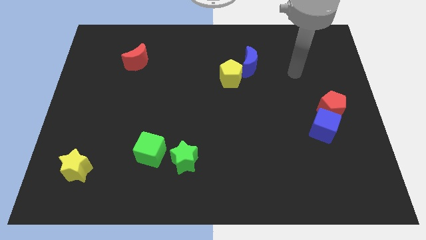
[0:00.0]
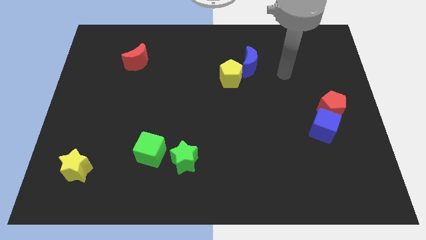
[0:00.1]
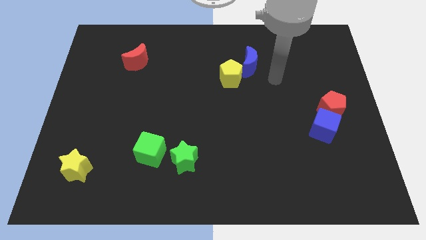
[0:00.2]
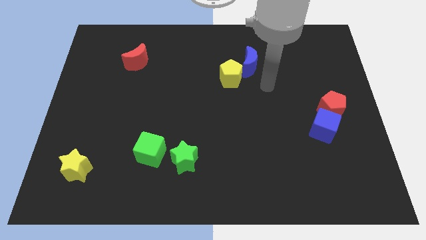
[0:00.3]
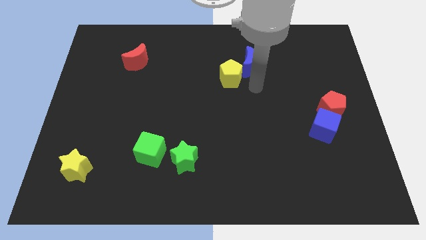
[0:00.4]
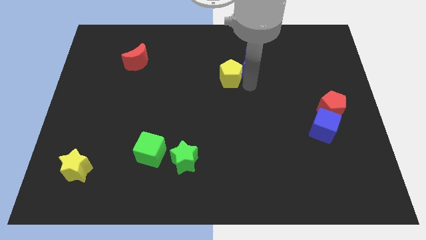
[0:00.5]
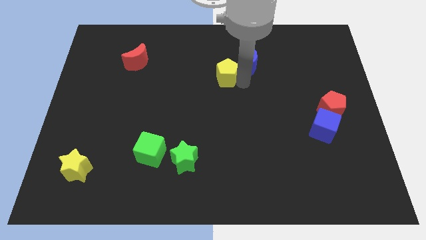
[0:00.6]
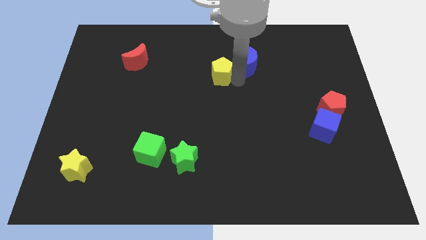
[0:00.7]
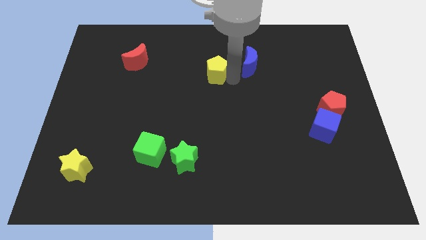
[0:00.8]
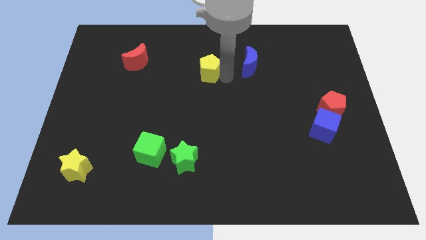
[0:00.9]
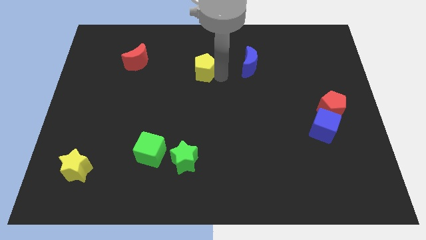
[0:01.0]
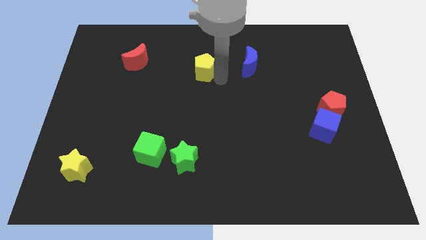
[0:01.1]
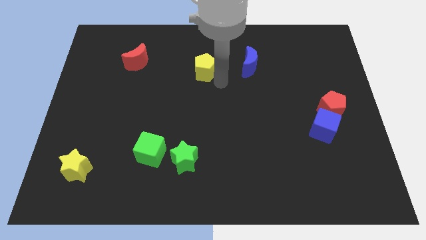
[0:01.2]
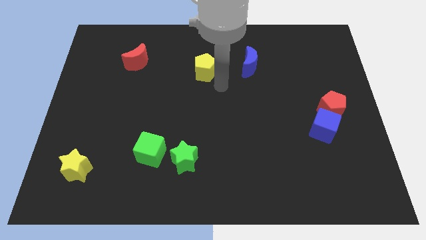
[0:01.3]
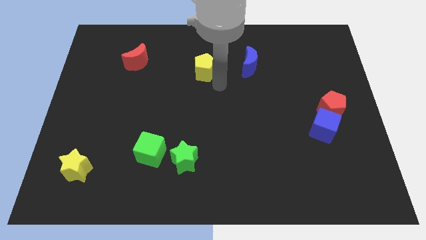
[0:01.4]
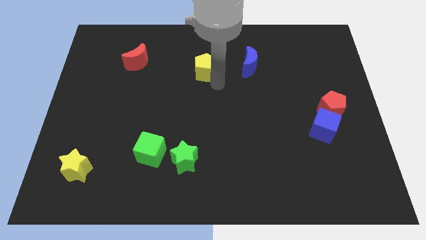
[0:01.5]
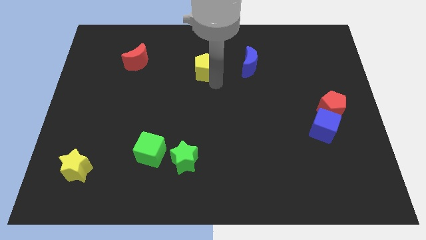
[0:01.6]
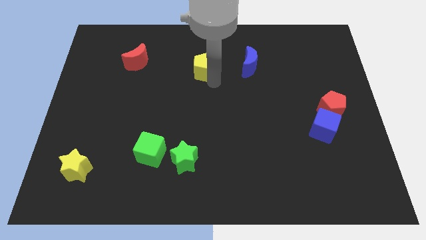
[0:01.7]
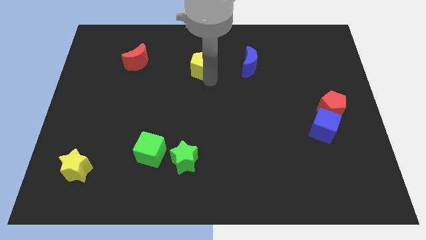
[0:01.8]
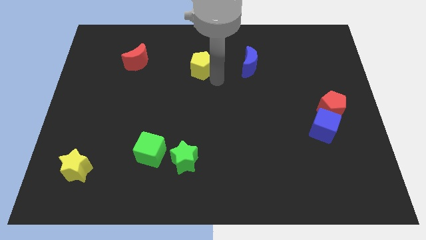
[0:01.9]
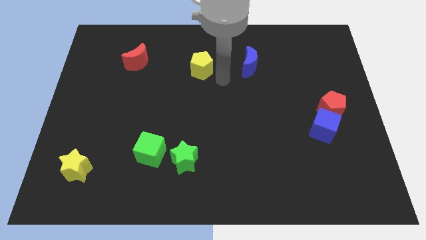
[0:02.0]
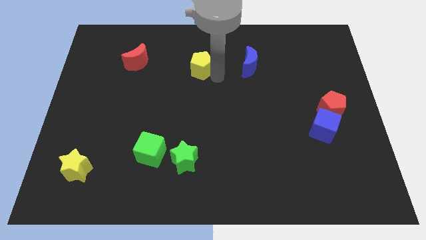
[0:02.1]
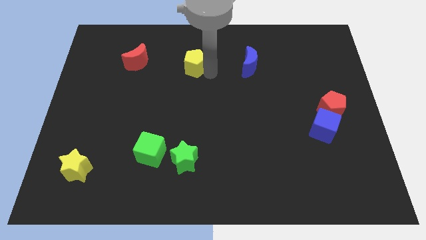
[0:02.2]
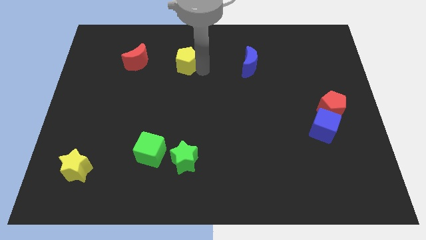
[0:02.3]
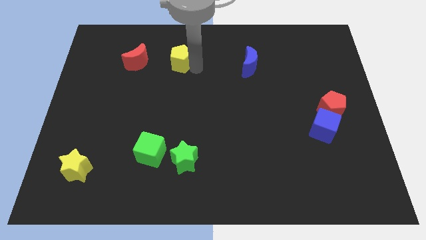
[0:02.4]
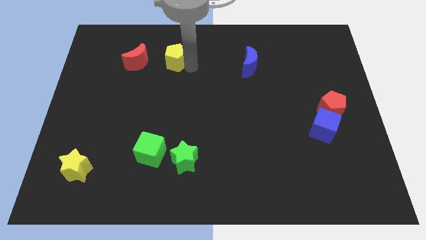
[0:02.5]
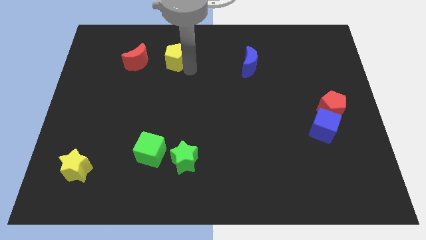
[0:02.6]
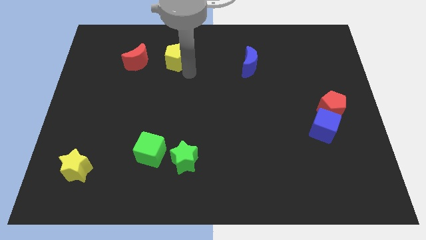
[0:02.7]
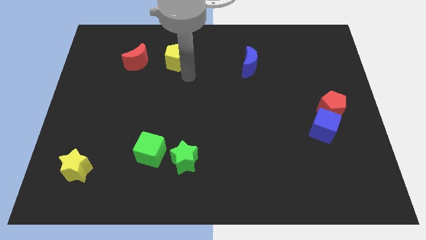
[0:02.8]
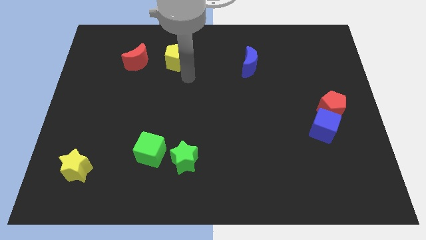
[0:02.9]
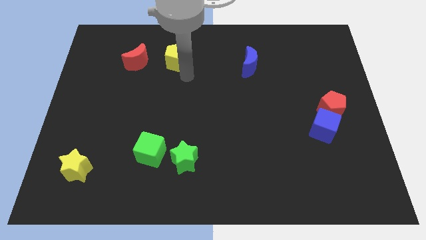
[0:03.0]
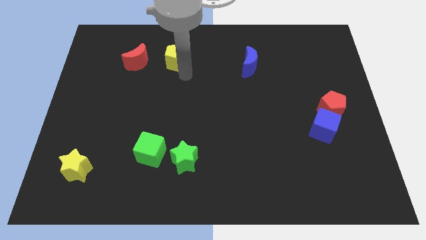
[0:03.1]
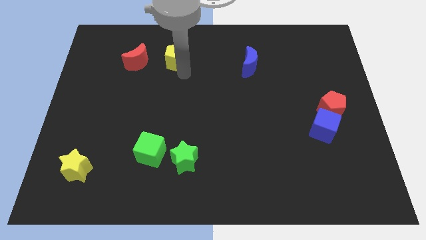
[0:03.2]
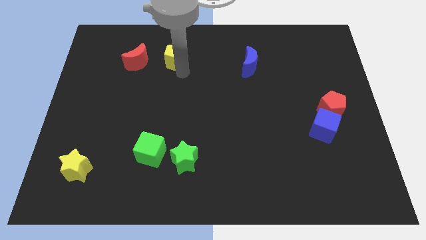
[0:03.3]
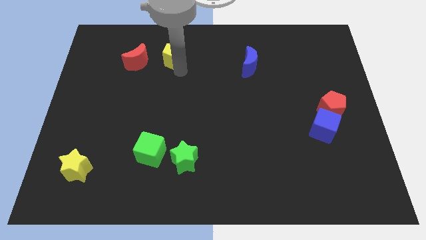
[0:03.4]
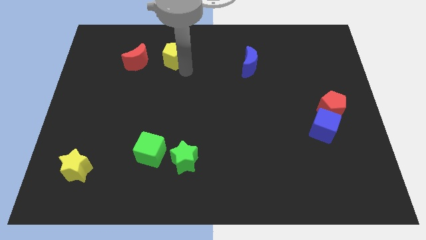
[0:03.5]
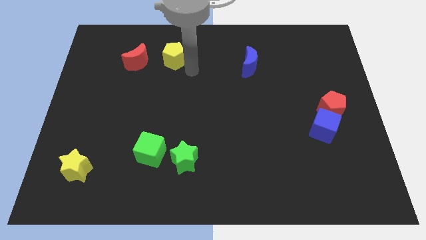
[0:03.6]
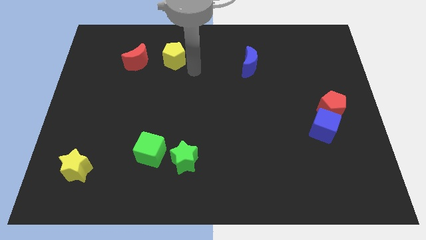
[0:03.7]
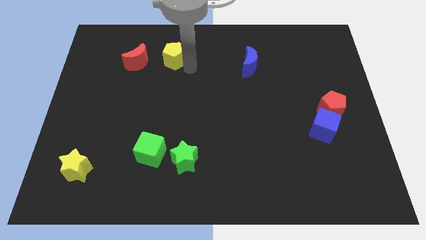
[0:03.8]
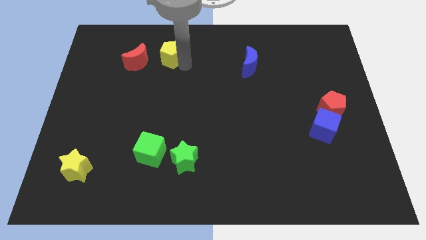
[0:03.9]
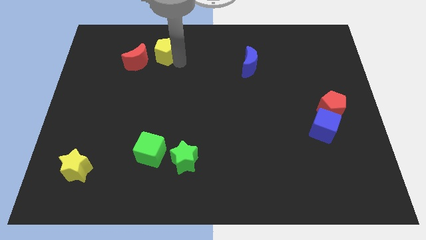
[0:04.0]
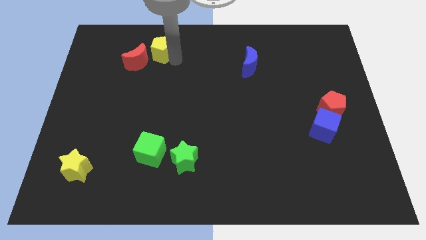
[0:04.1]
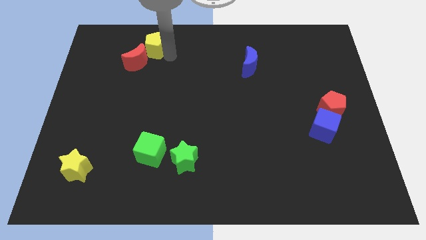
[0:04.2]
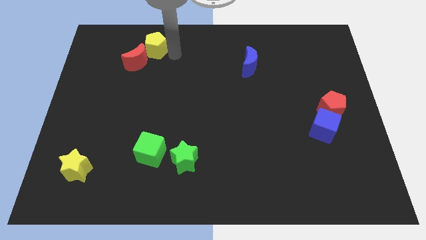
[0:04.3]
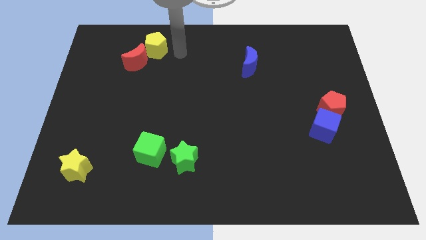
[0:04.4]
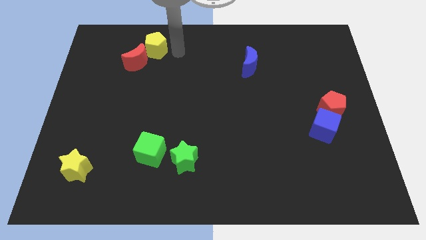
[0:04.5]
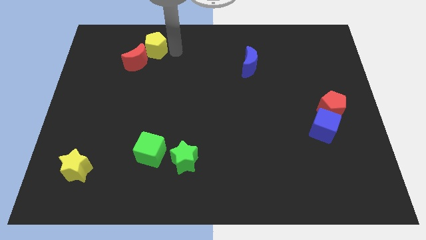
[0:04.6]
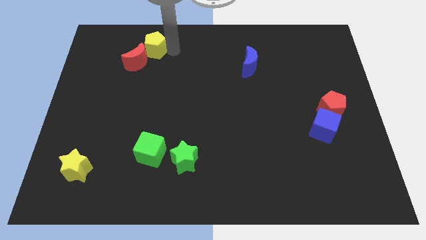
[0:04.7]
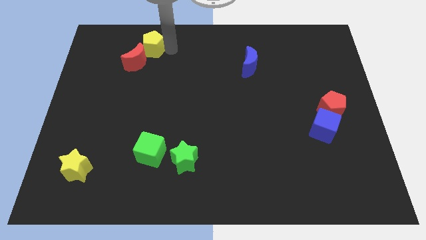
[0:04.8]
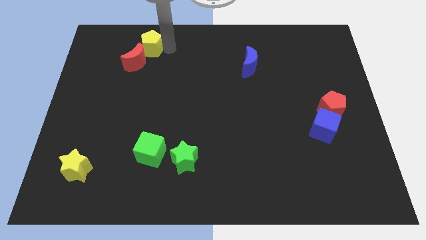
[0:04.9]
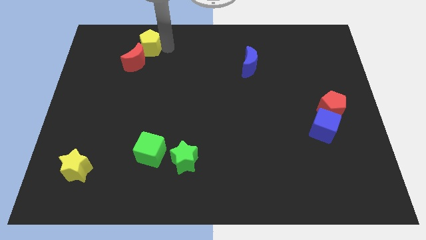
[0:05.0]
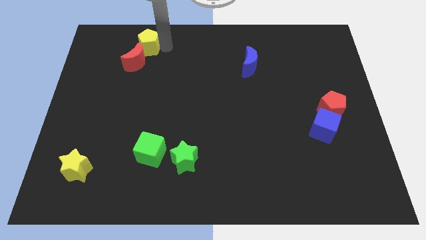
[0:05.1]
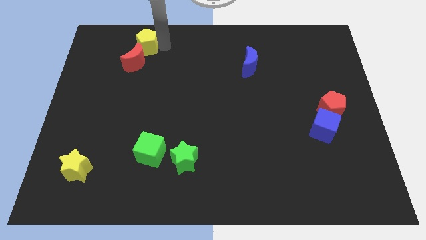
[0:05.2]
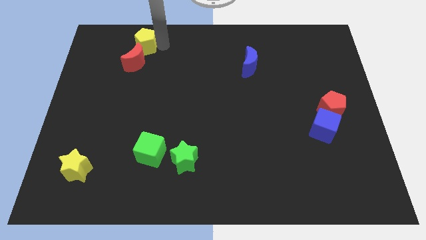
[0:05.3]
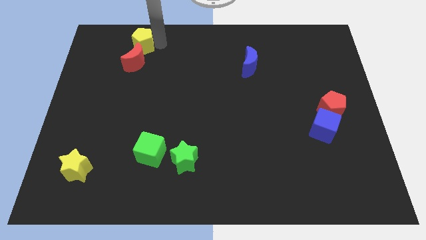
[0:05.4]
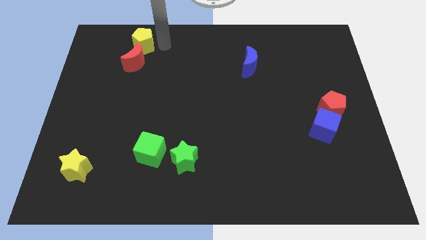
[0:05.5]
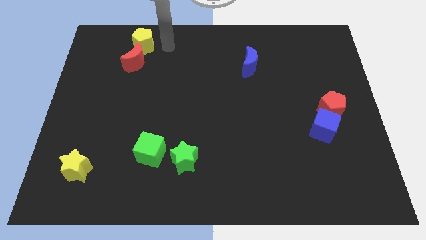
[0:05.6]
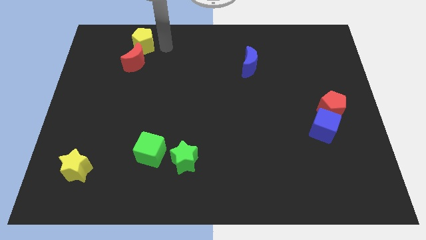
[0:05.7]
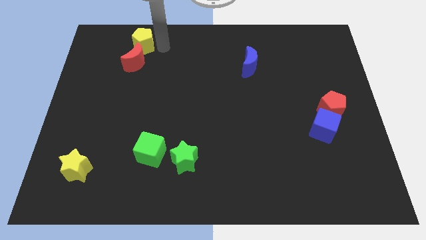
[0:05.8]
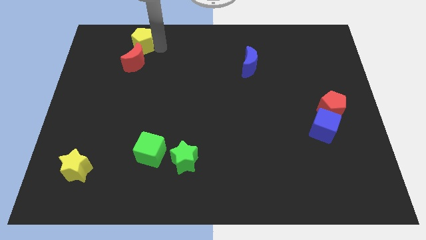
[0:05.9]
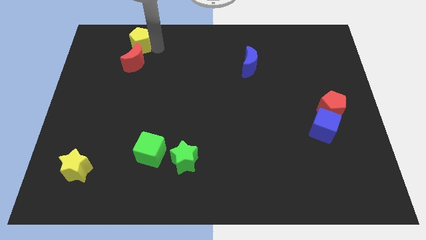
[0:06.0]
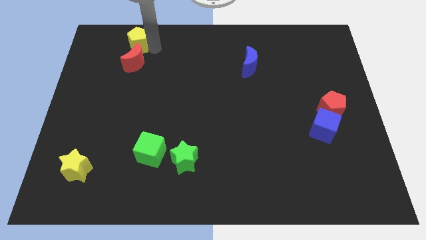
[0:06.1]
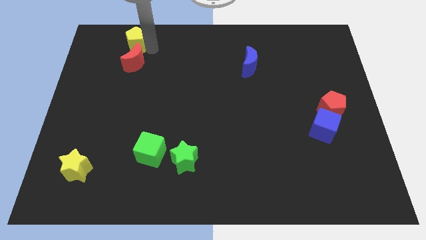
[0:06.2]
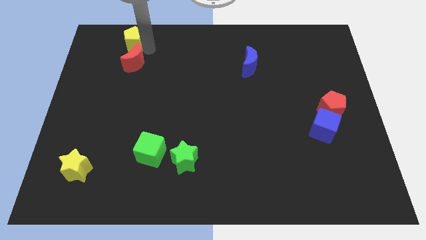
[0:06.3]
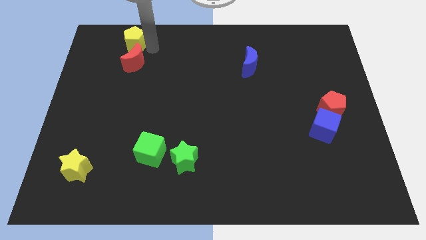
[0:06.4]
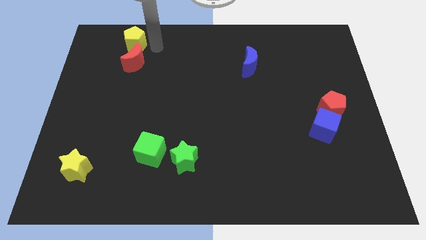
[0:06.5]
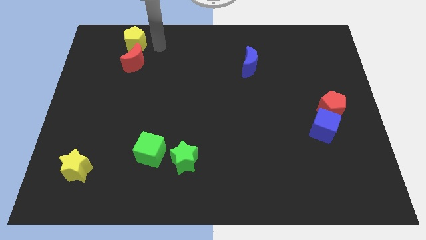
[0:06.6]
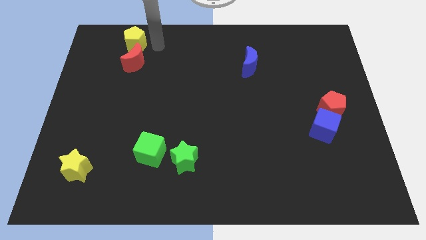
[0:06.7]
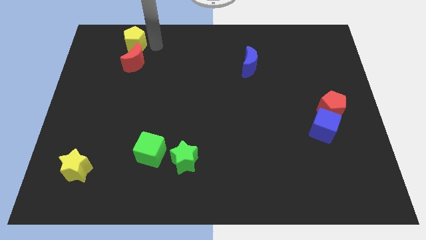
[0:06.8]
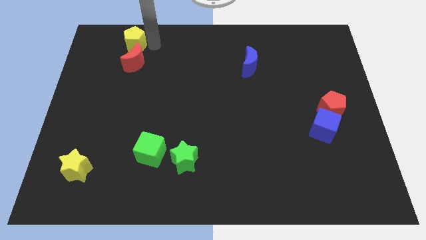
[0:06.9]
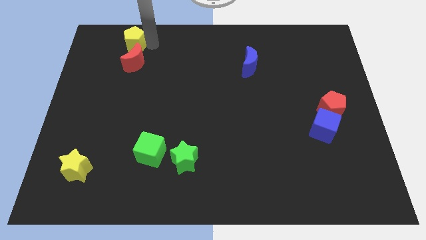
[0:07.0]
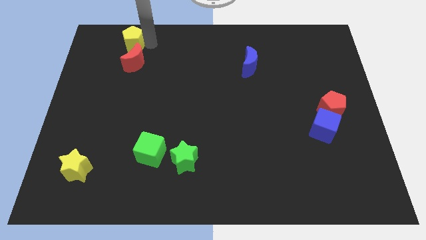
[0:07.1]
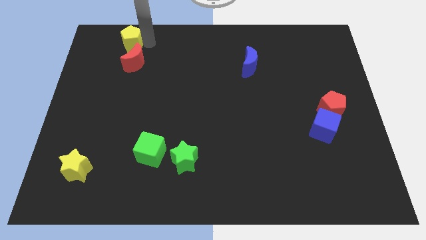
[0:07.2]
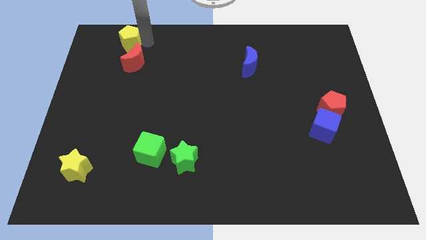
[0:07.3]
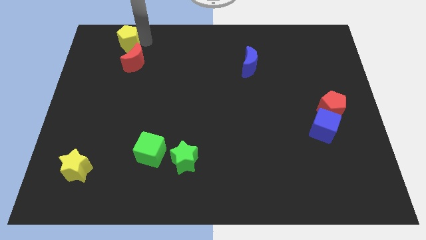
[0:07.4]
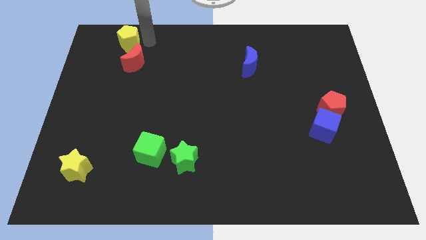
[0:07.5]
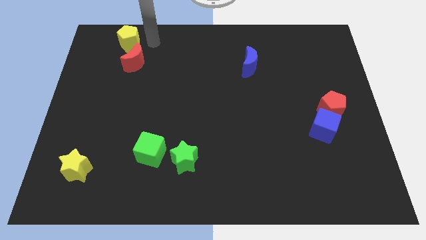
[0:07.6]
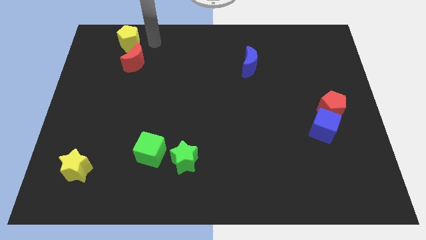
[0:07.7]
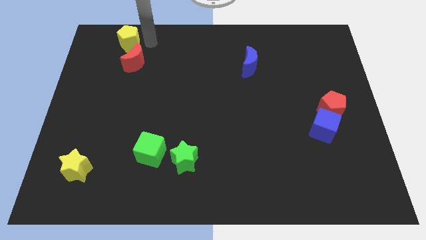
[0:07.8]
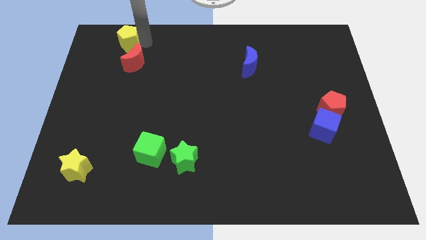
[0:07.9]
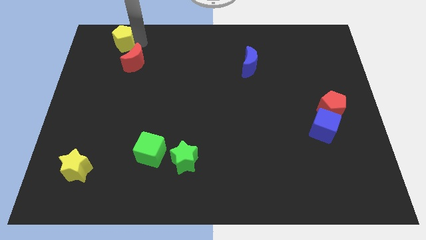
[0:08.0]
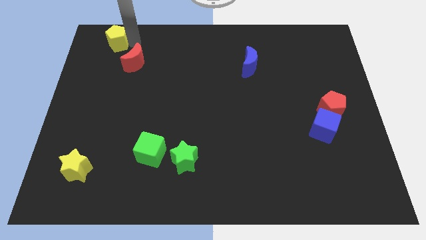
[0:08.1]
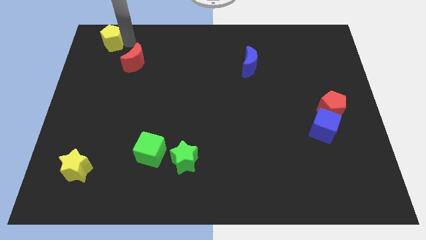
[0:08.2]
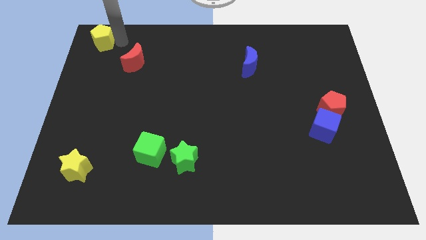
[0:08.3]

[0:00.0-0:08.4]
put the yellow pentagon to the top left of the board
